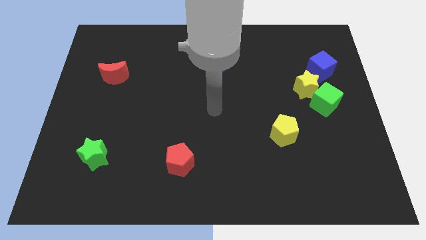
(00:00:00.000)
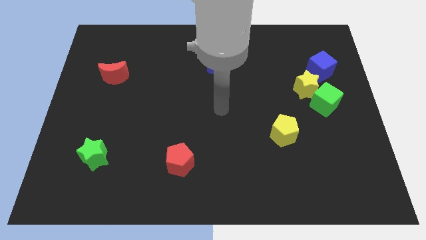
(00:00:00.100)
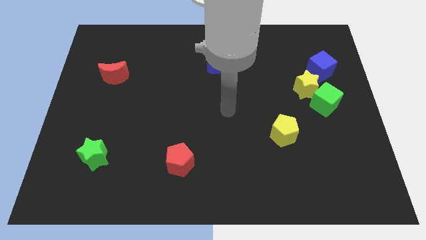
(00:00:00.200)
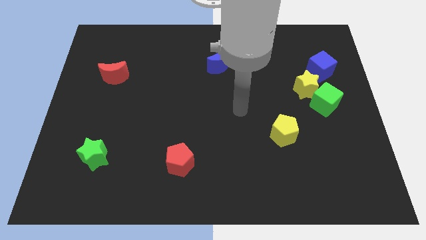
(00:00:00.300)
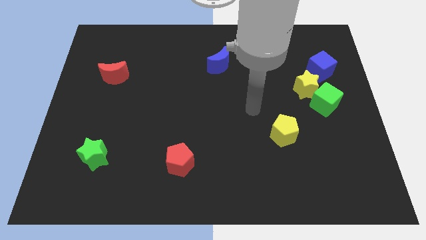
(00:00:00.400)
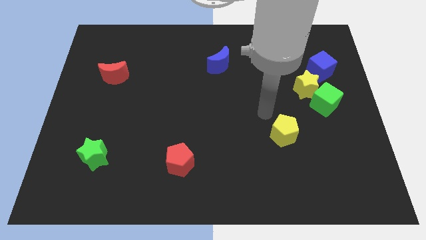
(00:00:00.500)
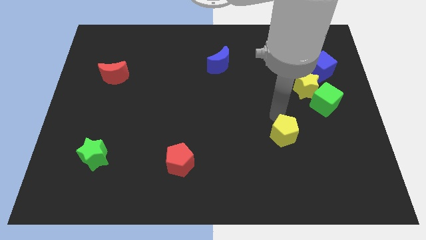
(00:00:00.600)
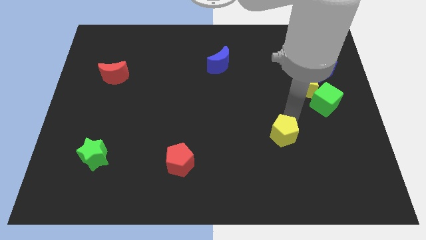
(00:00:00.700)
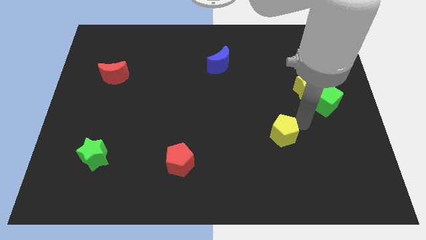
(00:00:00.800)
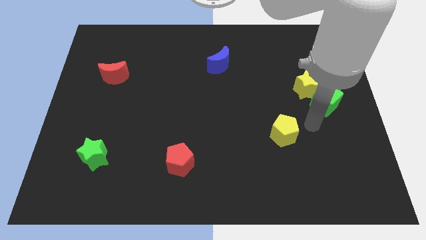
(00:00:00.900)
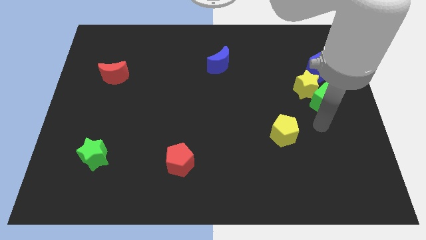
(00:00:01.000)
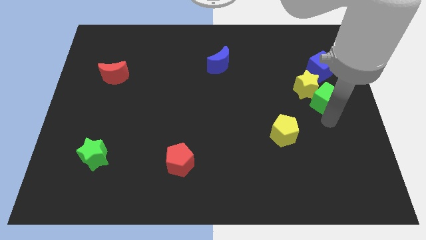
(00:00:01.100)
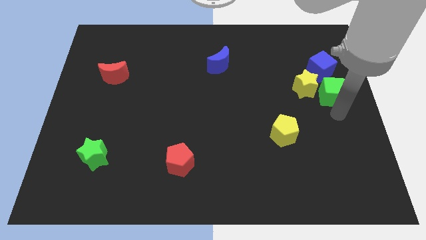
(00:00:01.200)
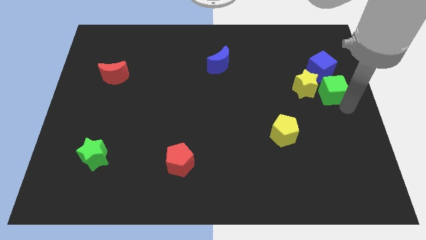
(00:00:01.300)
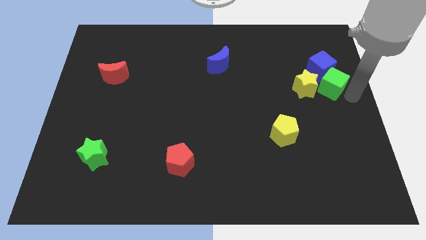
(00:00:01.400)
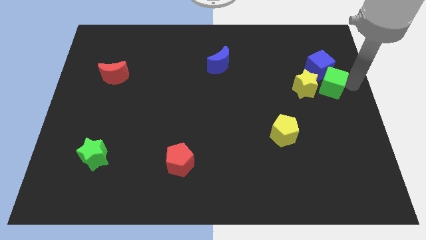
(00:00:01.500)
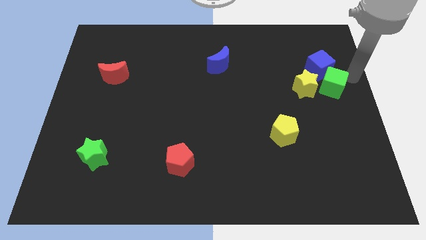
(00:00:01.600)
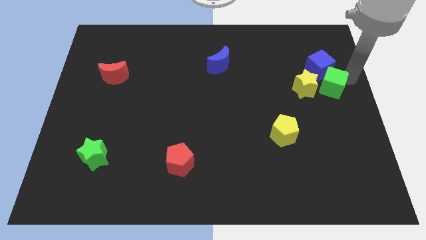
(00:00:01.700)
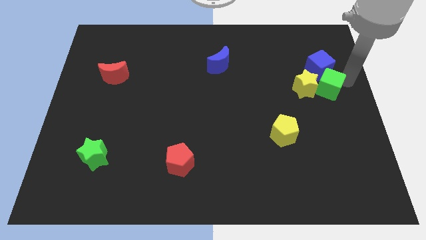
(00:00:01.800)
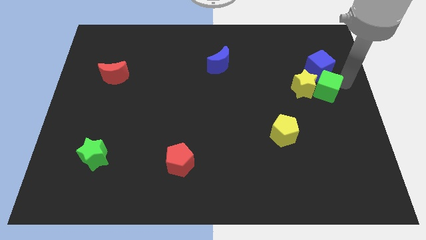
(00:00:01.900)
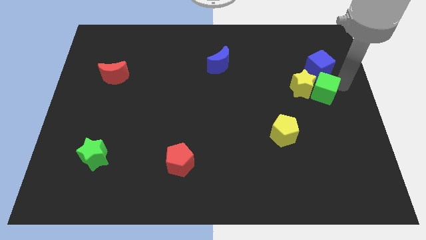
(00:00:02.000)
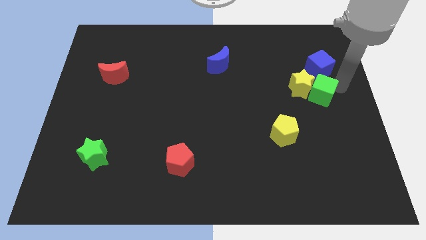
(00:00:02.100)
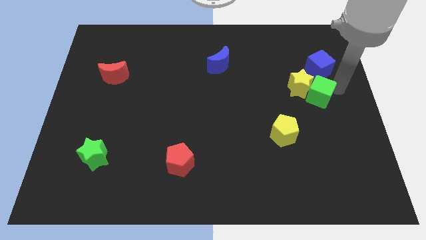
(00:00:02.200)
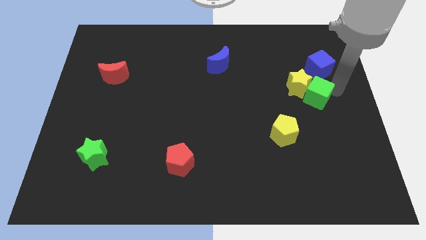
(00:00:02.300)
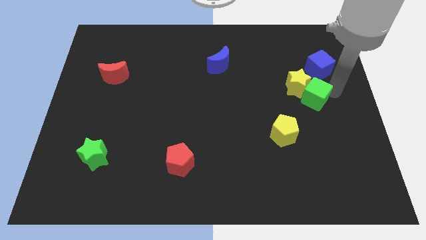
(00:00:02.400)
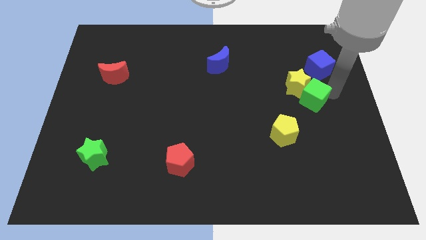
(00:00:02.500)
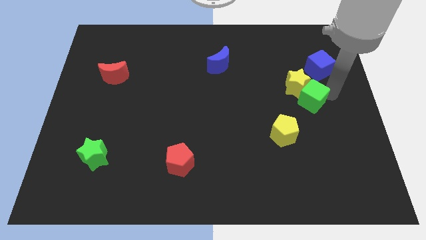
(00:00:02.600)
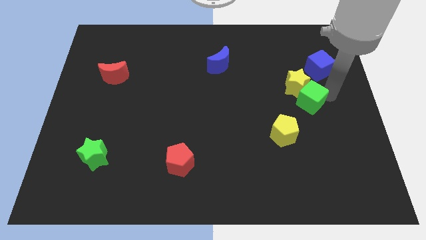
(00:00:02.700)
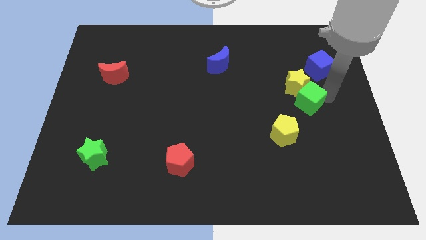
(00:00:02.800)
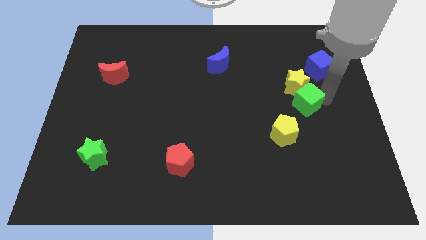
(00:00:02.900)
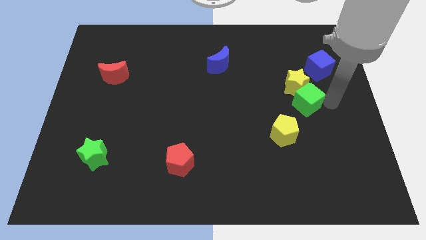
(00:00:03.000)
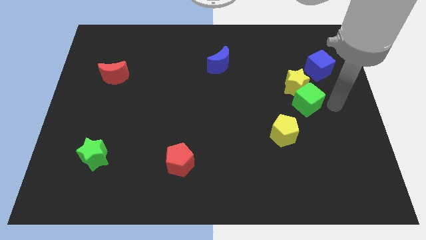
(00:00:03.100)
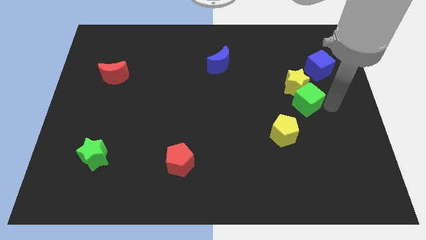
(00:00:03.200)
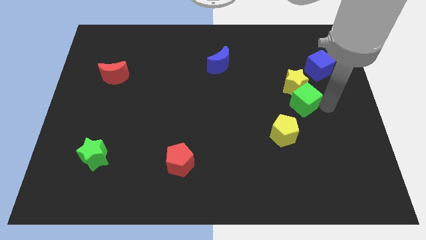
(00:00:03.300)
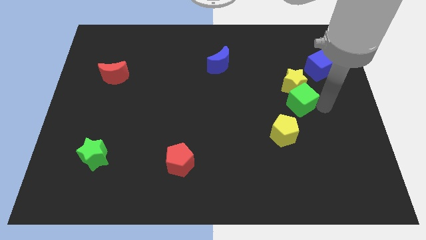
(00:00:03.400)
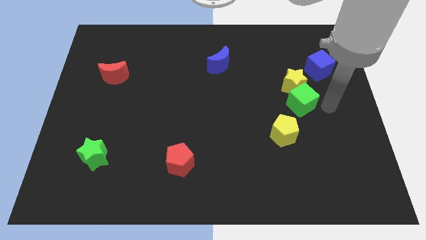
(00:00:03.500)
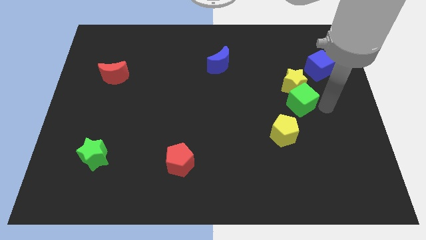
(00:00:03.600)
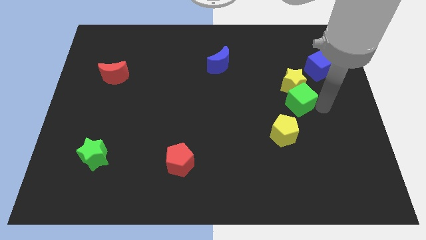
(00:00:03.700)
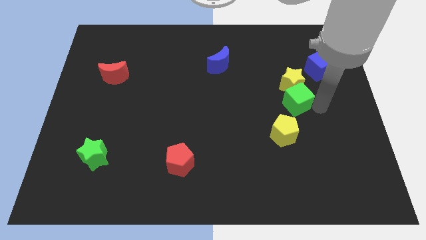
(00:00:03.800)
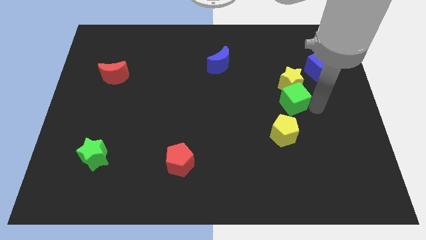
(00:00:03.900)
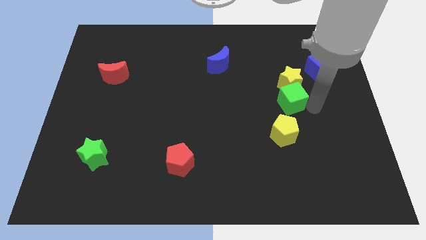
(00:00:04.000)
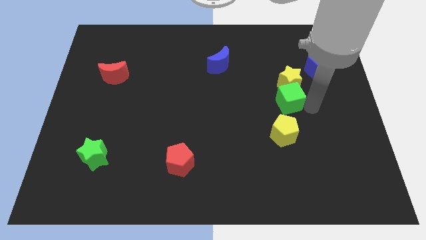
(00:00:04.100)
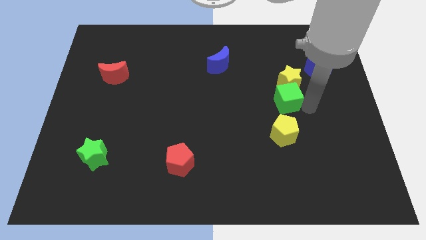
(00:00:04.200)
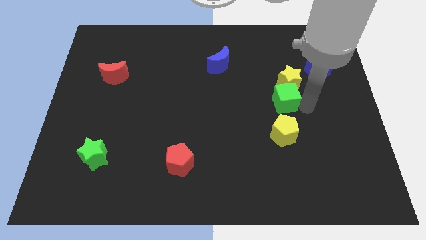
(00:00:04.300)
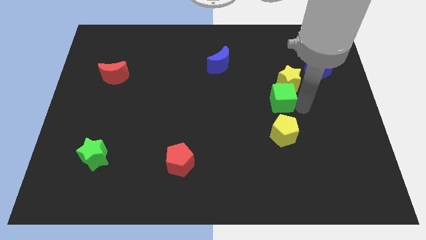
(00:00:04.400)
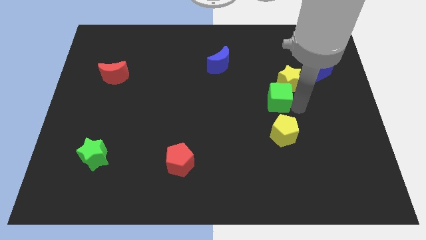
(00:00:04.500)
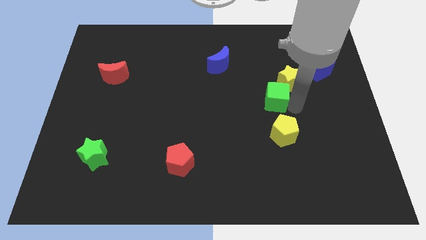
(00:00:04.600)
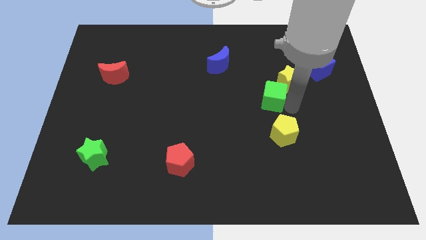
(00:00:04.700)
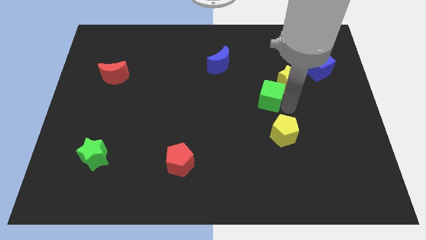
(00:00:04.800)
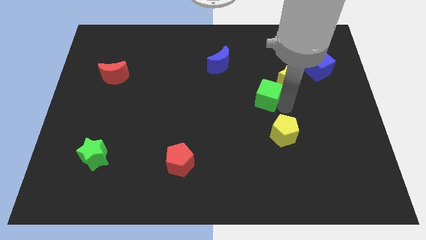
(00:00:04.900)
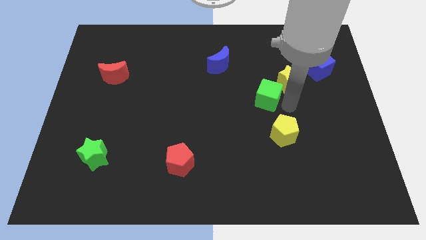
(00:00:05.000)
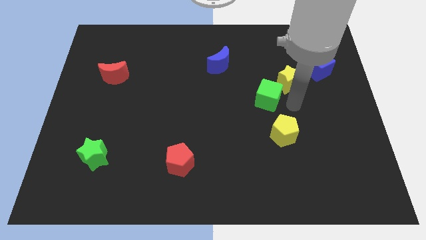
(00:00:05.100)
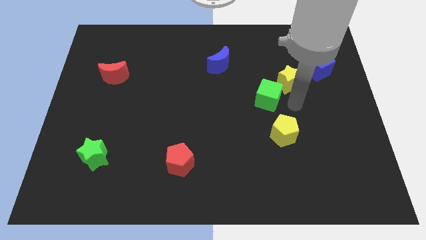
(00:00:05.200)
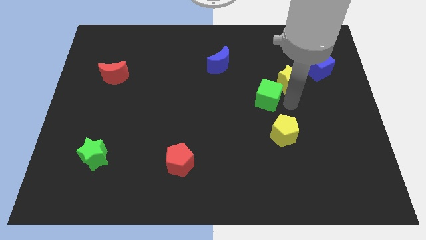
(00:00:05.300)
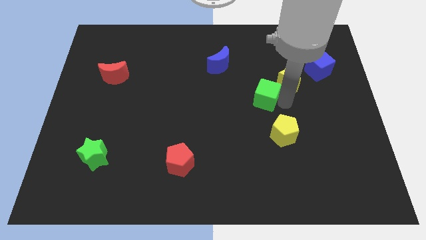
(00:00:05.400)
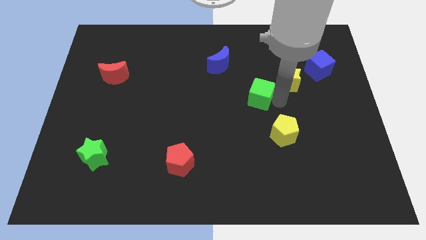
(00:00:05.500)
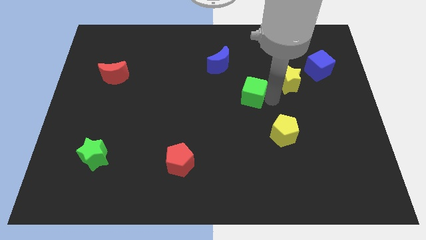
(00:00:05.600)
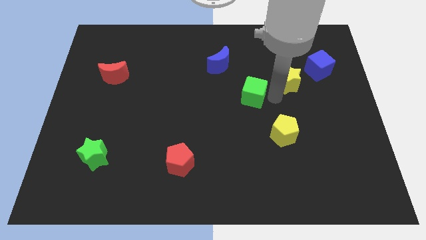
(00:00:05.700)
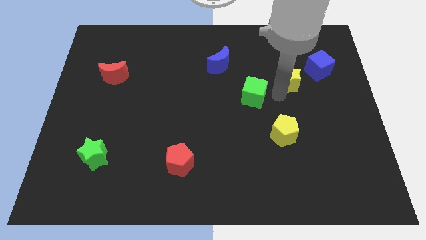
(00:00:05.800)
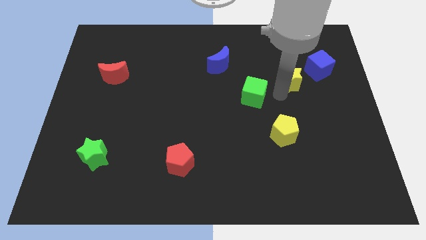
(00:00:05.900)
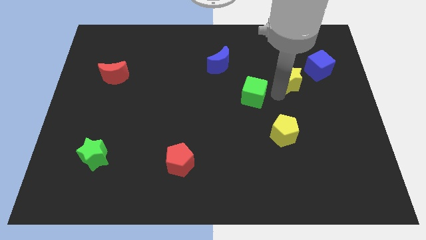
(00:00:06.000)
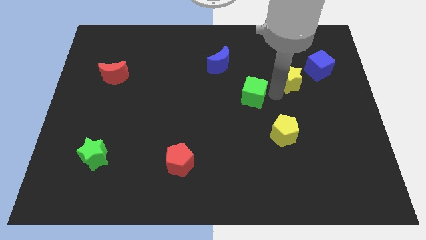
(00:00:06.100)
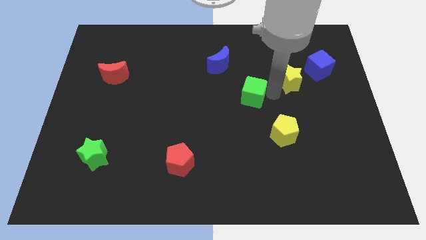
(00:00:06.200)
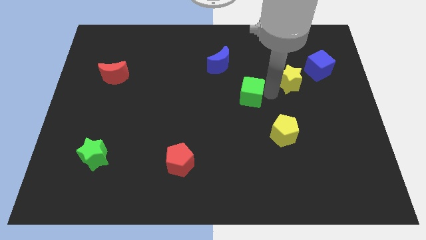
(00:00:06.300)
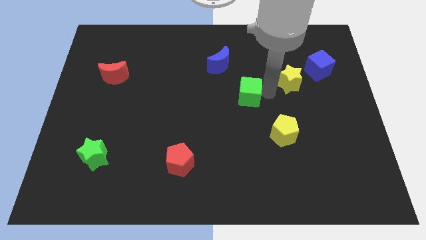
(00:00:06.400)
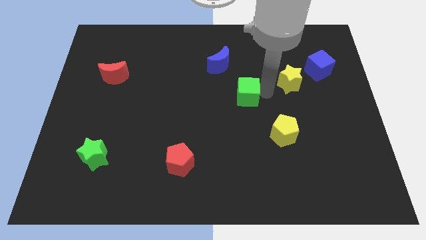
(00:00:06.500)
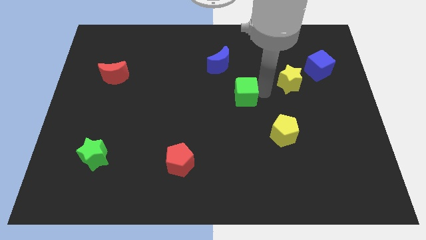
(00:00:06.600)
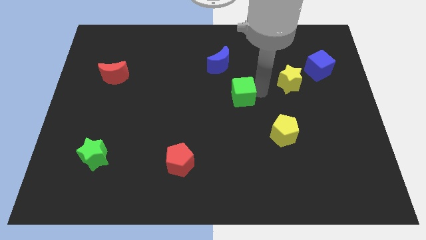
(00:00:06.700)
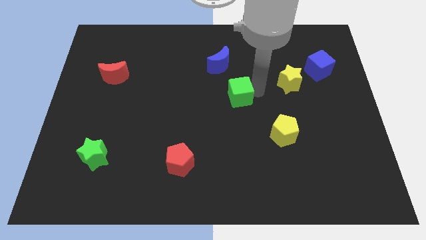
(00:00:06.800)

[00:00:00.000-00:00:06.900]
push the green cube left

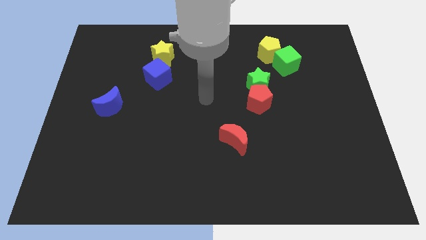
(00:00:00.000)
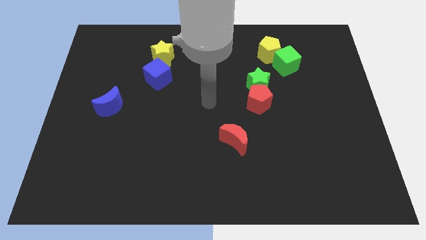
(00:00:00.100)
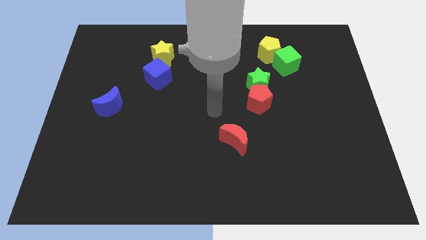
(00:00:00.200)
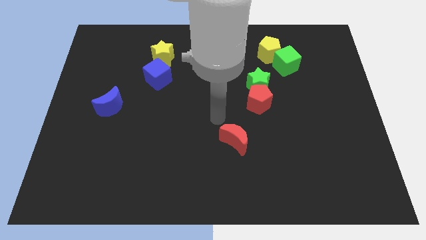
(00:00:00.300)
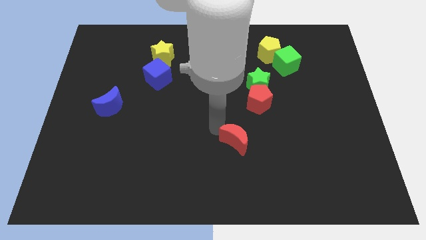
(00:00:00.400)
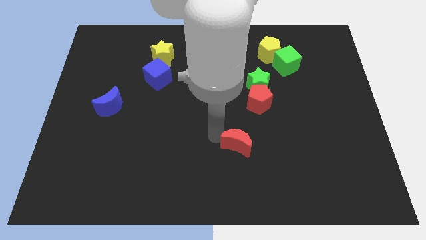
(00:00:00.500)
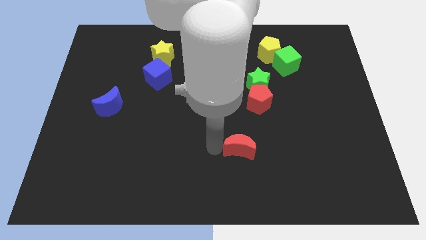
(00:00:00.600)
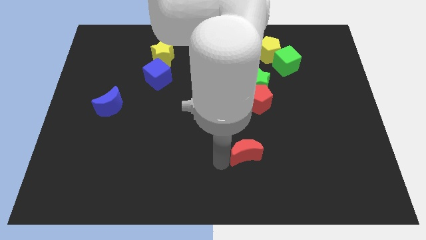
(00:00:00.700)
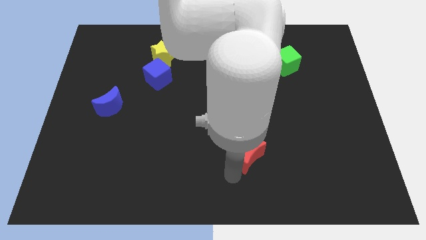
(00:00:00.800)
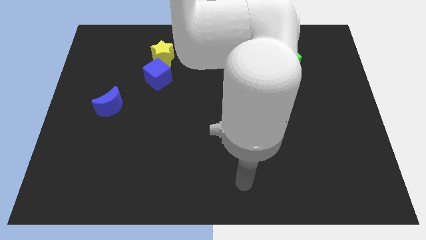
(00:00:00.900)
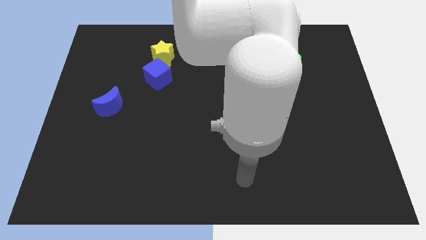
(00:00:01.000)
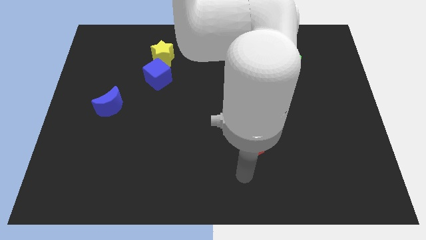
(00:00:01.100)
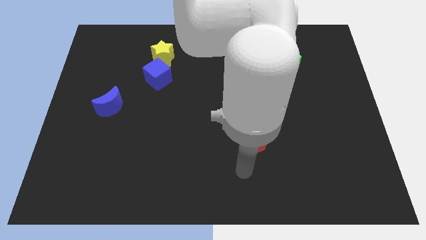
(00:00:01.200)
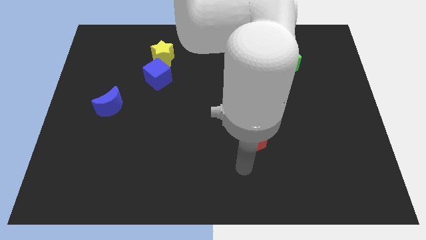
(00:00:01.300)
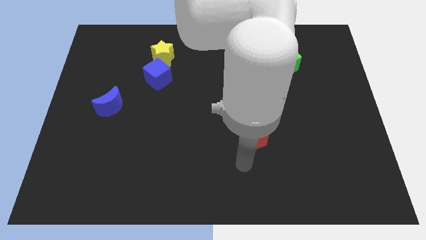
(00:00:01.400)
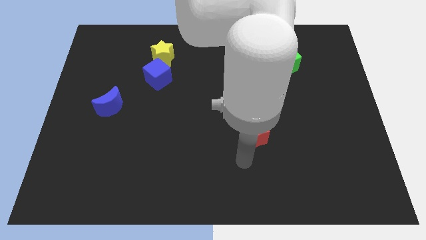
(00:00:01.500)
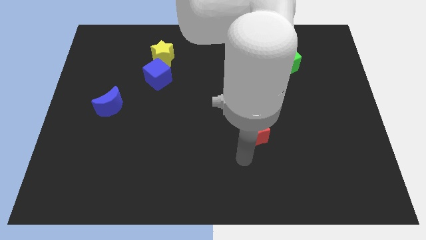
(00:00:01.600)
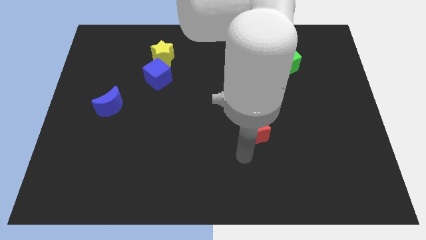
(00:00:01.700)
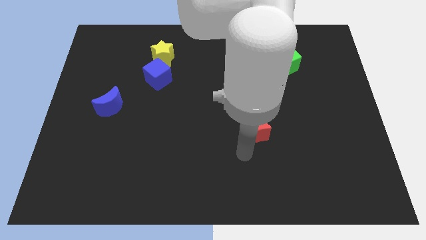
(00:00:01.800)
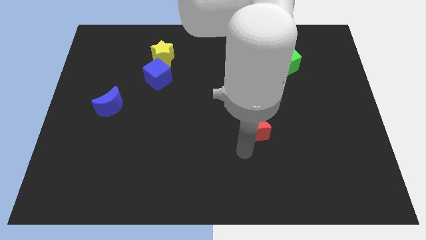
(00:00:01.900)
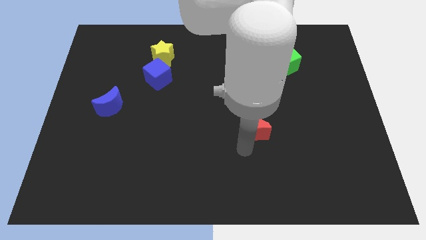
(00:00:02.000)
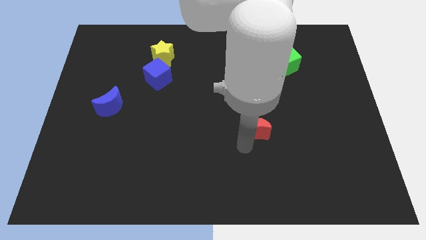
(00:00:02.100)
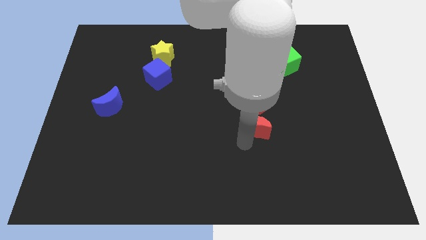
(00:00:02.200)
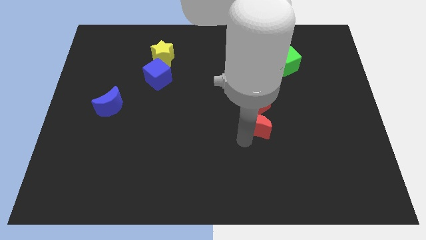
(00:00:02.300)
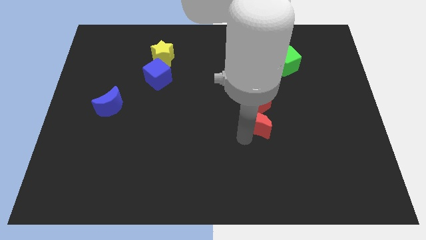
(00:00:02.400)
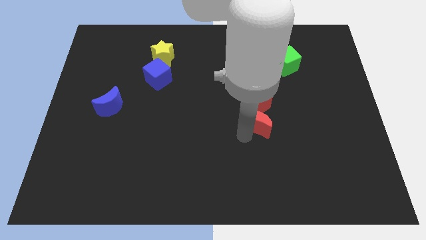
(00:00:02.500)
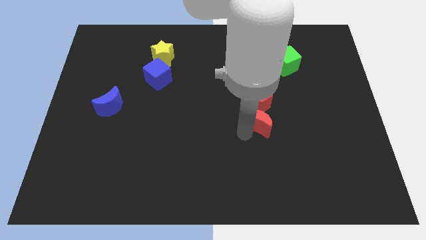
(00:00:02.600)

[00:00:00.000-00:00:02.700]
move the red moon a little bit up and right
